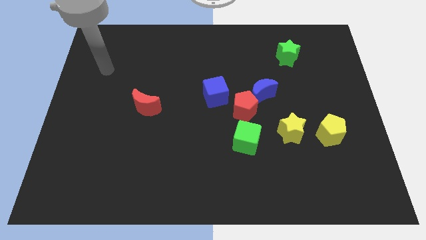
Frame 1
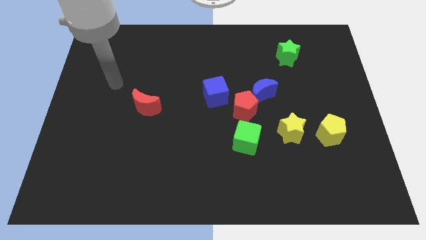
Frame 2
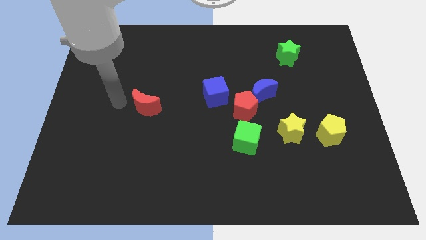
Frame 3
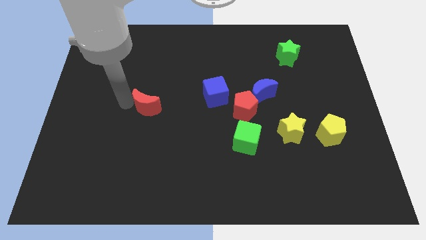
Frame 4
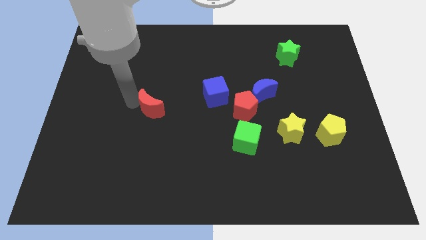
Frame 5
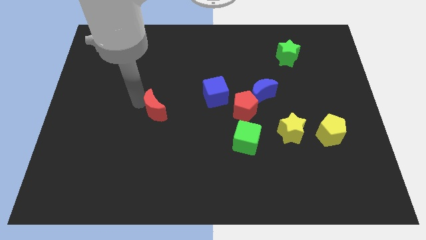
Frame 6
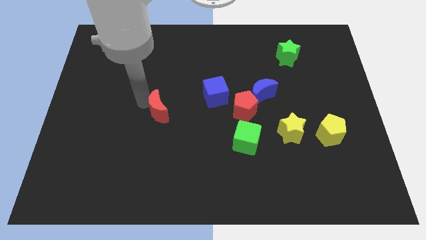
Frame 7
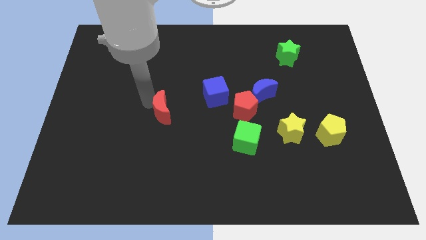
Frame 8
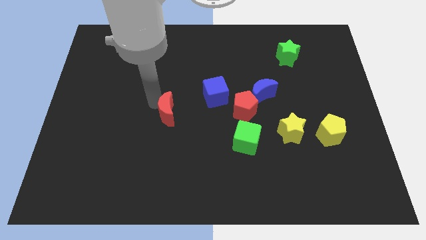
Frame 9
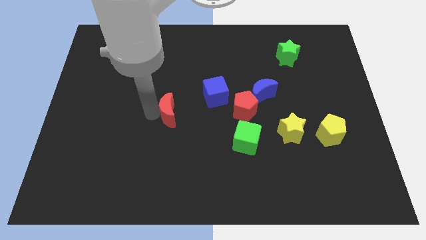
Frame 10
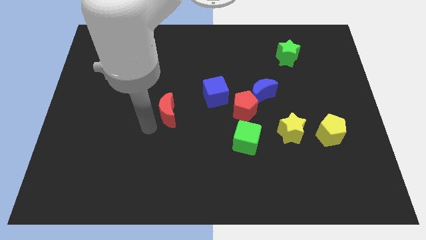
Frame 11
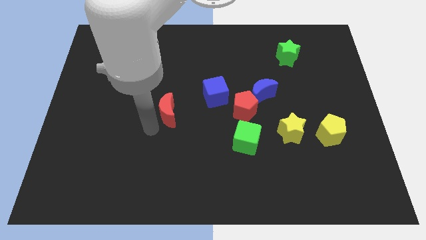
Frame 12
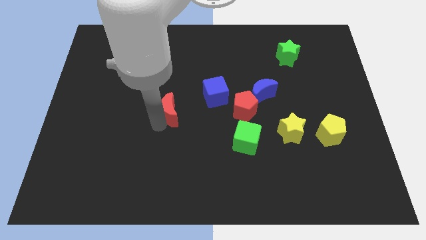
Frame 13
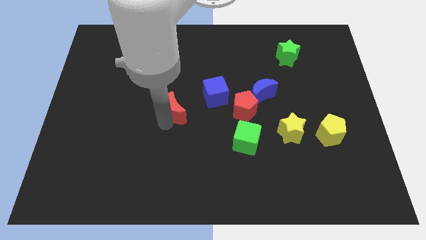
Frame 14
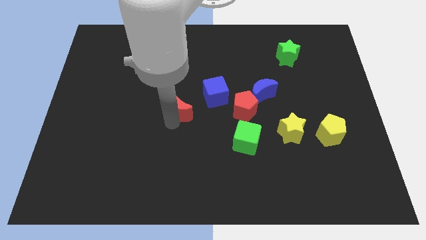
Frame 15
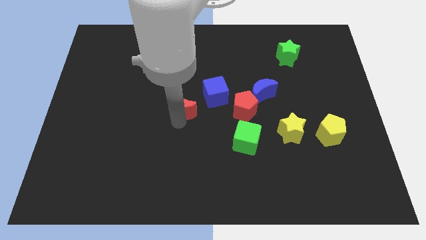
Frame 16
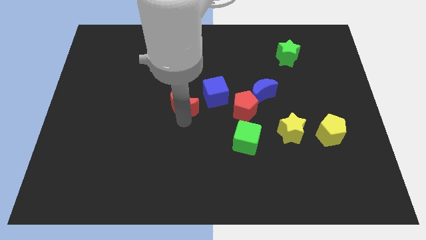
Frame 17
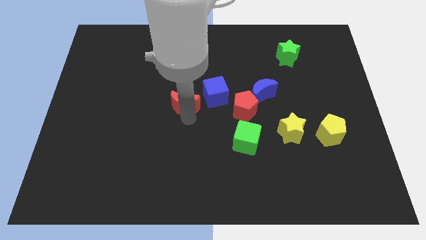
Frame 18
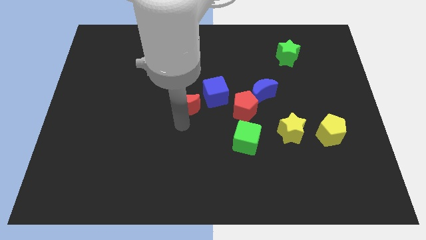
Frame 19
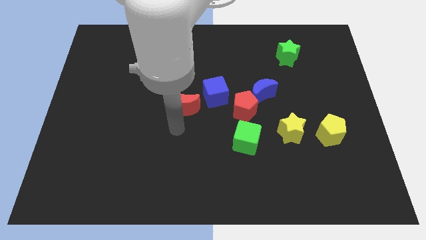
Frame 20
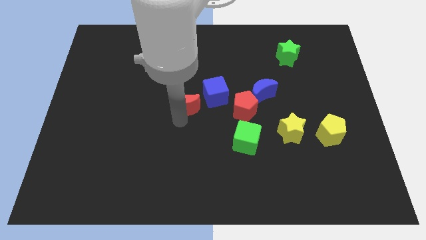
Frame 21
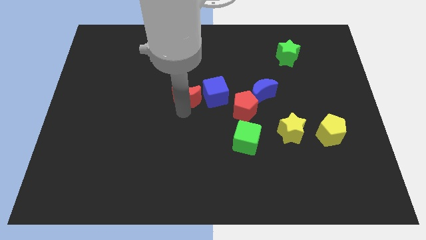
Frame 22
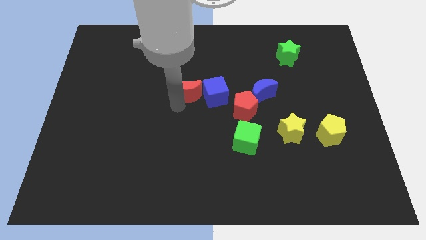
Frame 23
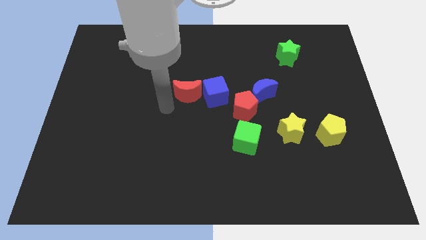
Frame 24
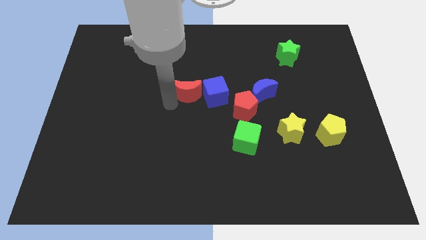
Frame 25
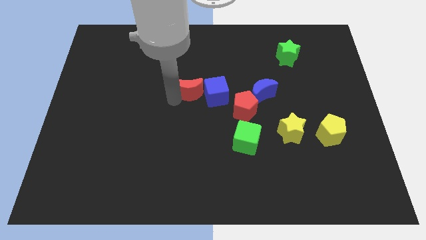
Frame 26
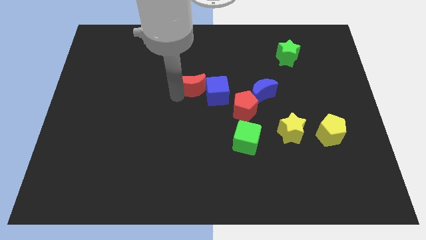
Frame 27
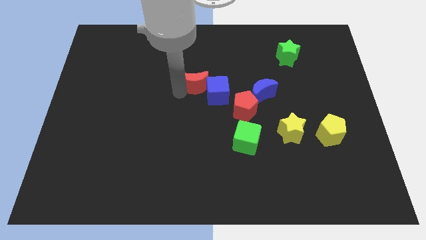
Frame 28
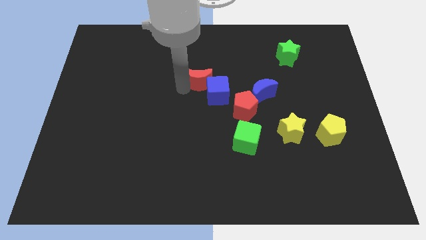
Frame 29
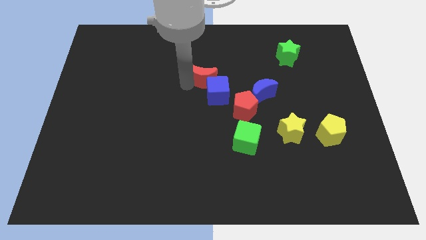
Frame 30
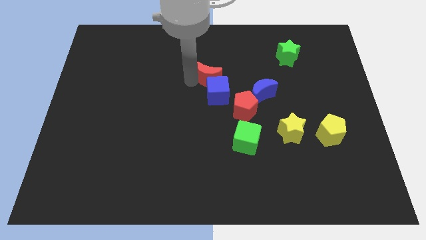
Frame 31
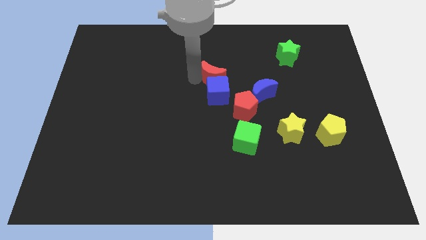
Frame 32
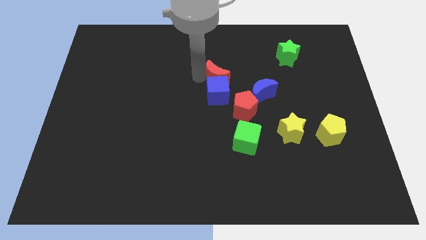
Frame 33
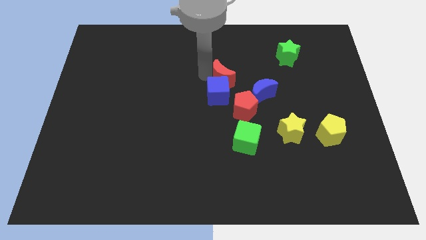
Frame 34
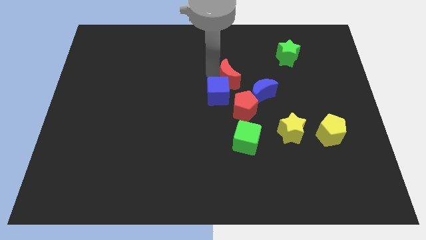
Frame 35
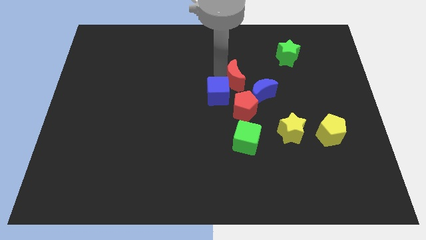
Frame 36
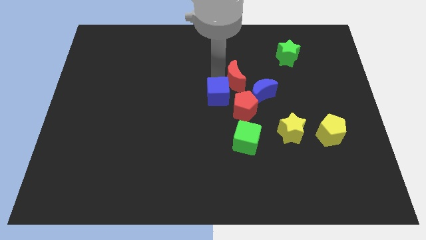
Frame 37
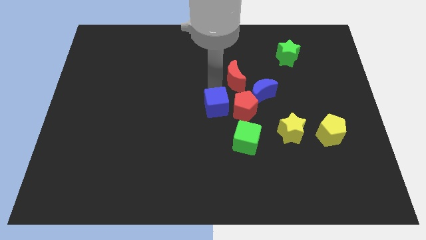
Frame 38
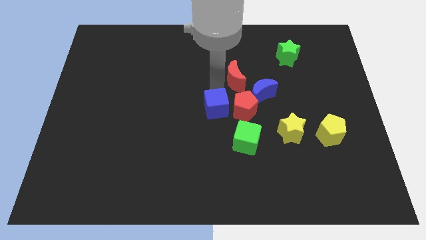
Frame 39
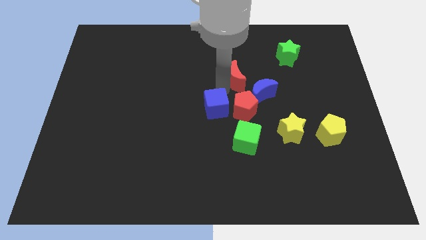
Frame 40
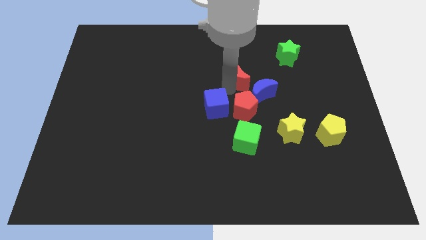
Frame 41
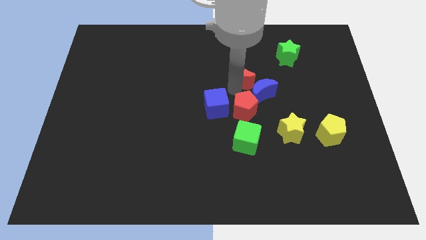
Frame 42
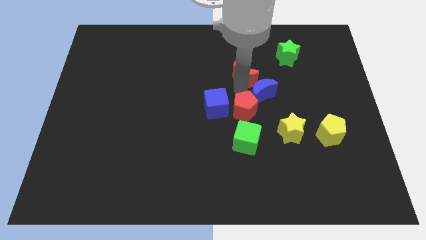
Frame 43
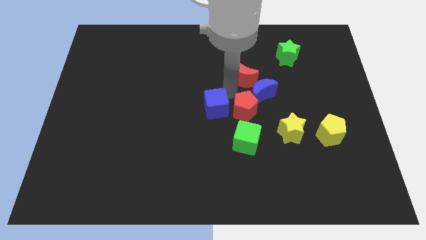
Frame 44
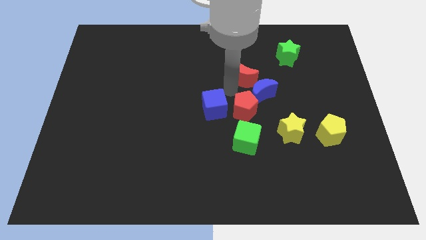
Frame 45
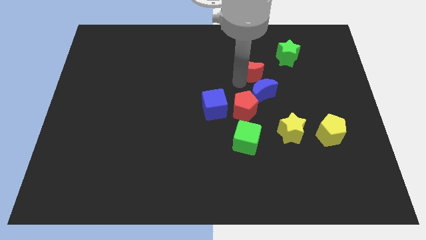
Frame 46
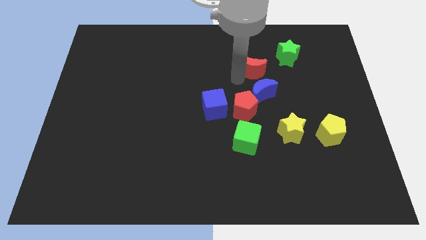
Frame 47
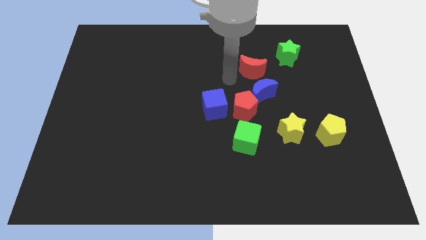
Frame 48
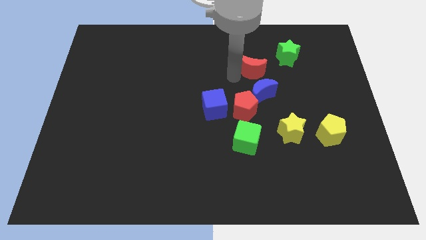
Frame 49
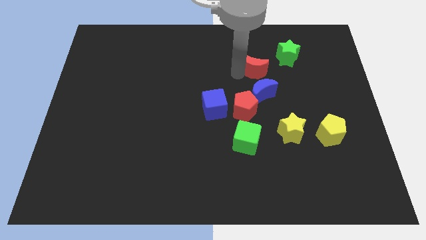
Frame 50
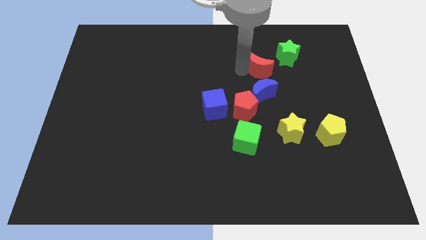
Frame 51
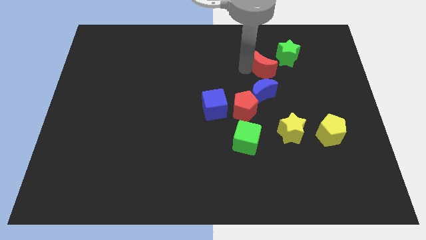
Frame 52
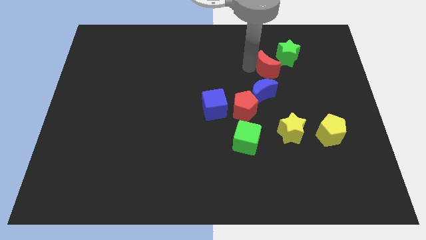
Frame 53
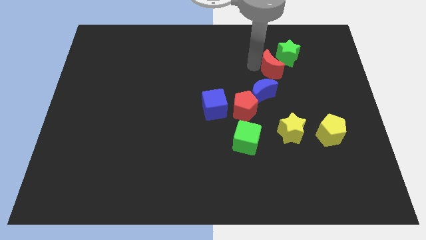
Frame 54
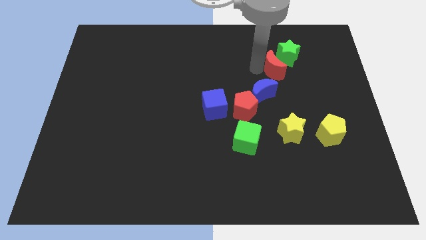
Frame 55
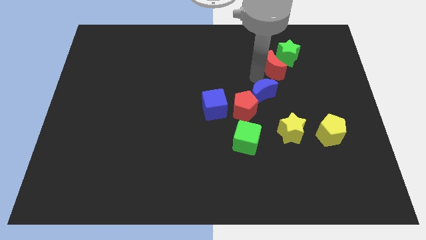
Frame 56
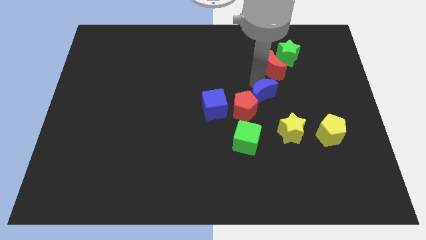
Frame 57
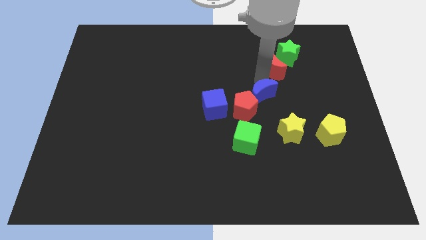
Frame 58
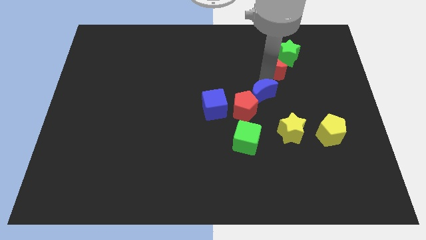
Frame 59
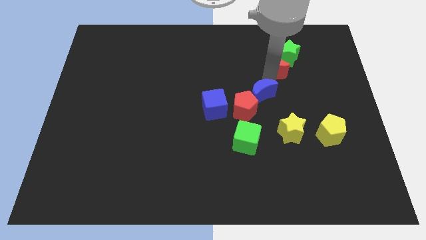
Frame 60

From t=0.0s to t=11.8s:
put the red moon close to the green star

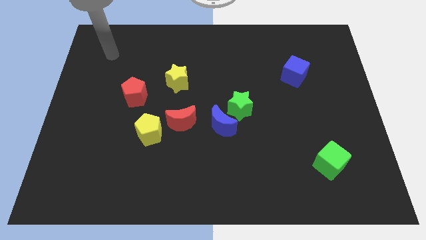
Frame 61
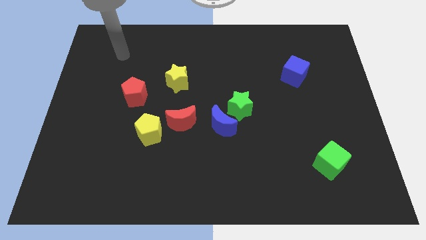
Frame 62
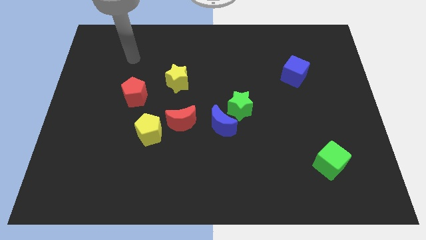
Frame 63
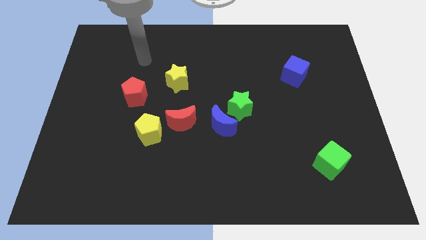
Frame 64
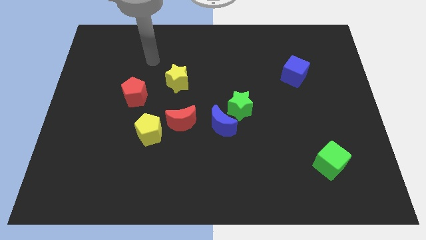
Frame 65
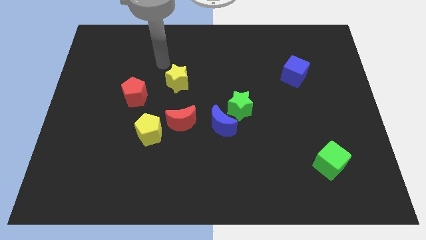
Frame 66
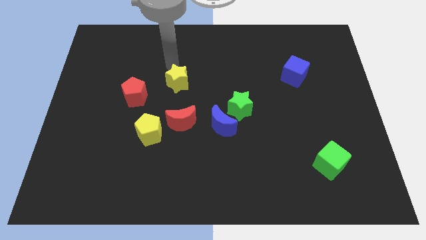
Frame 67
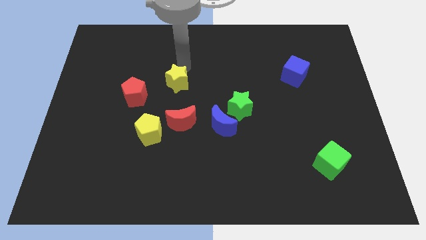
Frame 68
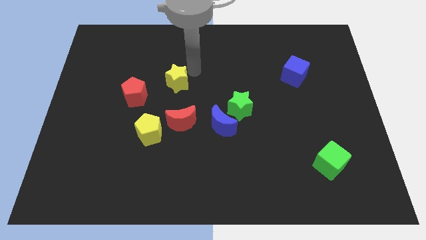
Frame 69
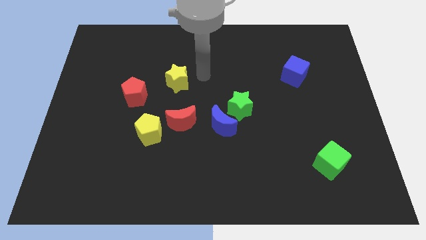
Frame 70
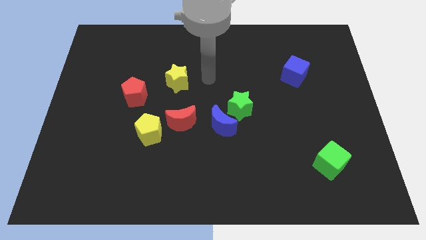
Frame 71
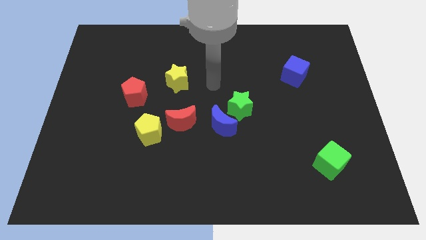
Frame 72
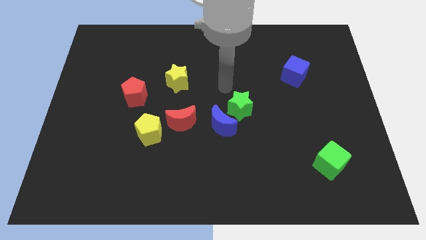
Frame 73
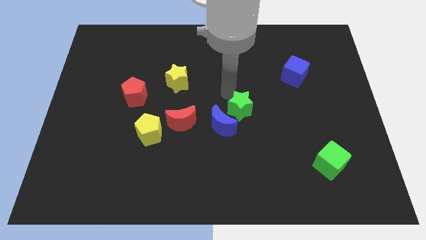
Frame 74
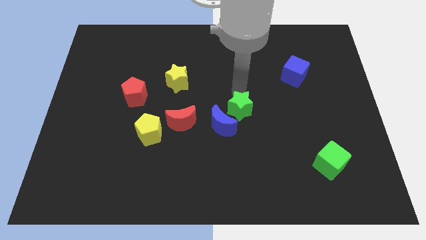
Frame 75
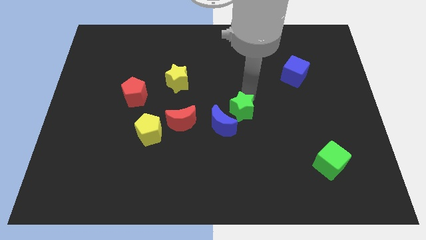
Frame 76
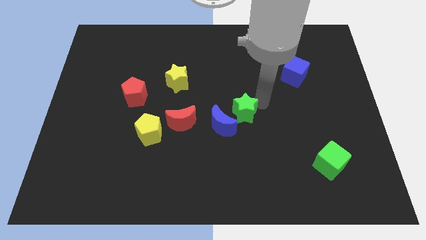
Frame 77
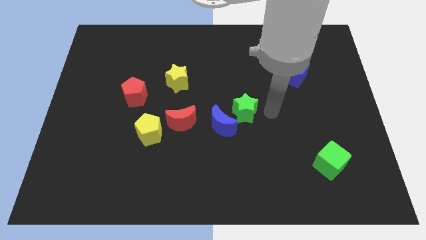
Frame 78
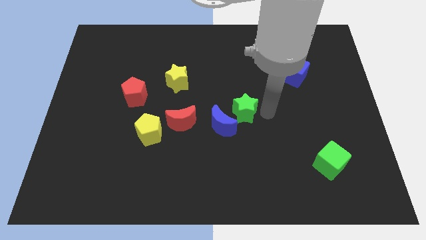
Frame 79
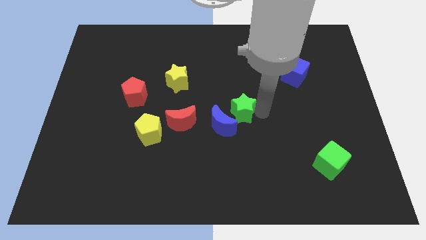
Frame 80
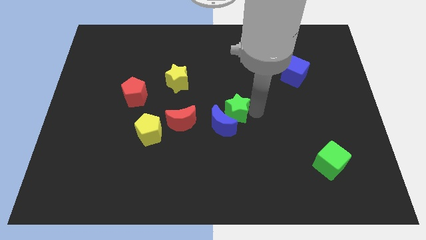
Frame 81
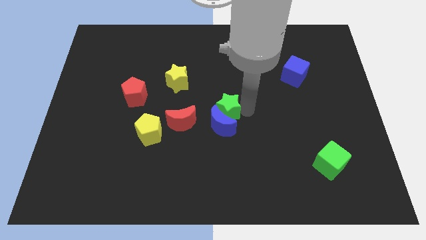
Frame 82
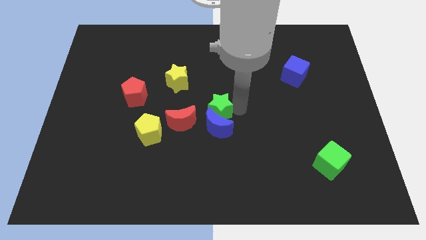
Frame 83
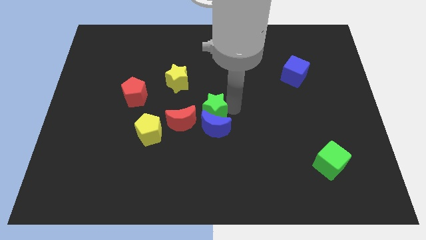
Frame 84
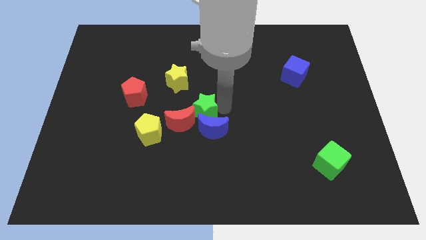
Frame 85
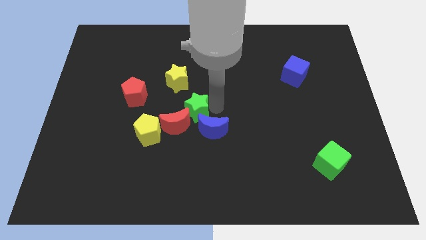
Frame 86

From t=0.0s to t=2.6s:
move the green star towards the red moon
